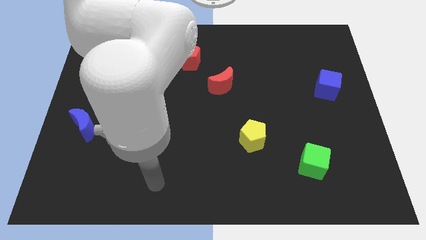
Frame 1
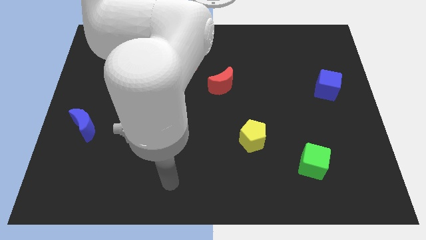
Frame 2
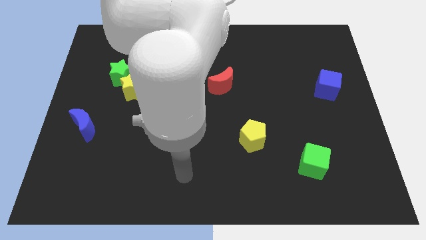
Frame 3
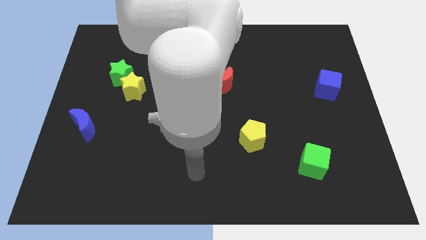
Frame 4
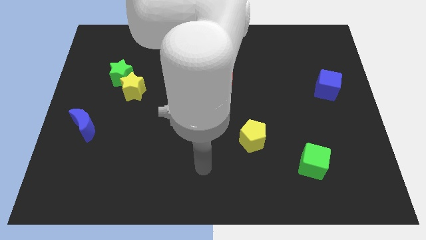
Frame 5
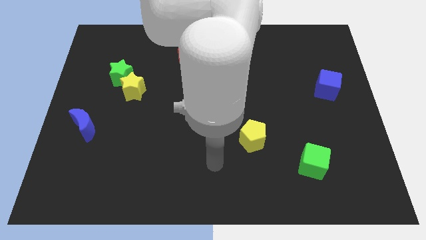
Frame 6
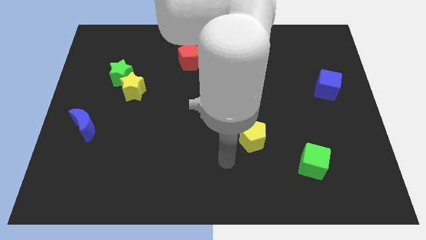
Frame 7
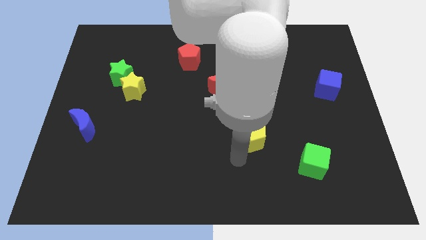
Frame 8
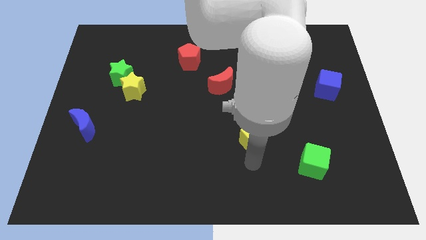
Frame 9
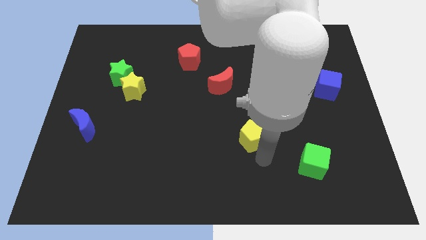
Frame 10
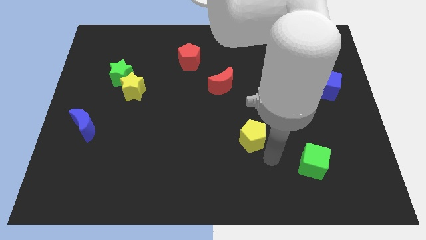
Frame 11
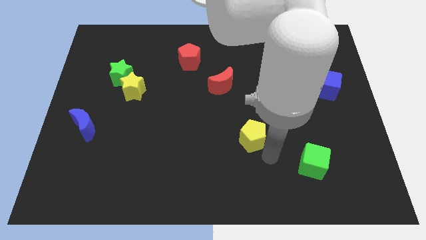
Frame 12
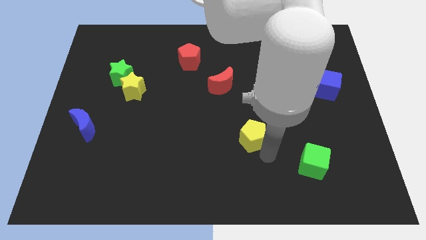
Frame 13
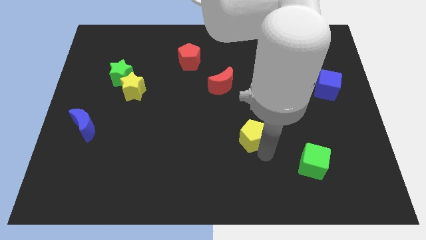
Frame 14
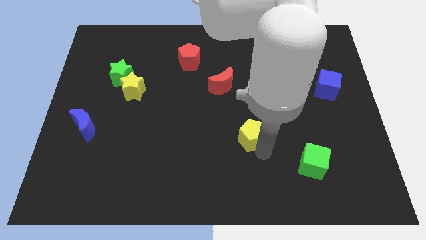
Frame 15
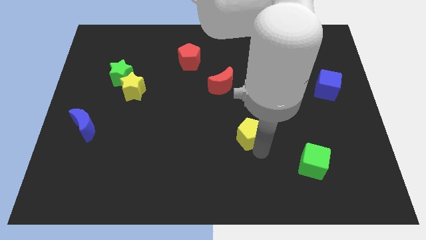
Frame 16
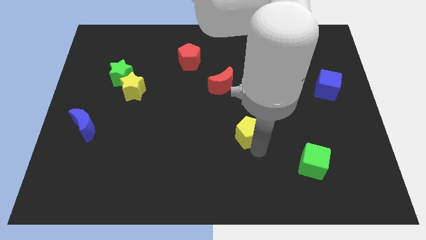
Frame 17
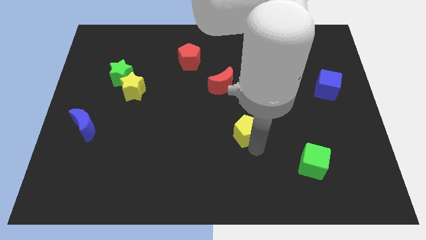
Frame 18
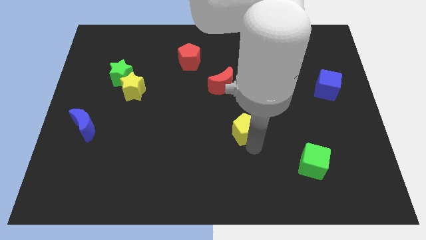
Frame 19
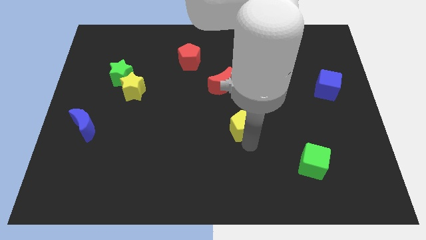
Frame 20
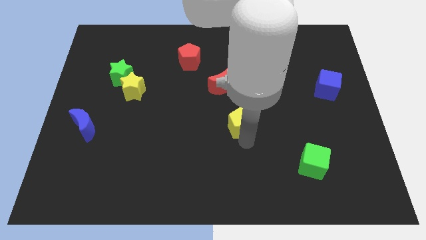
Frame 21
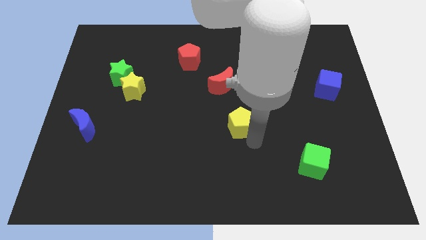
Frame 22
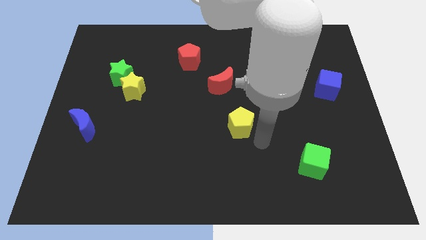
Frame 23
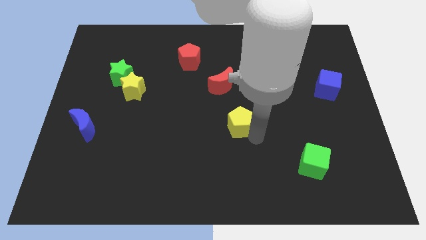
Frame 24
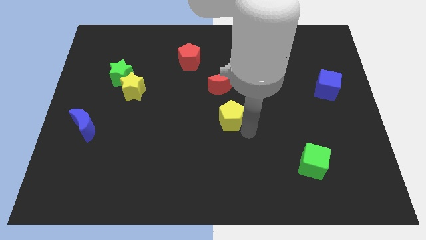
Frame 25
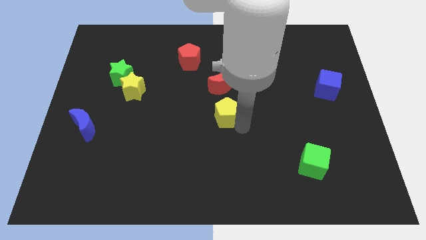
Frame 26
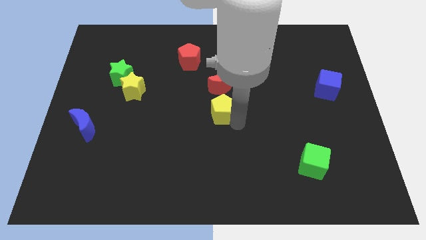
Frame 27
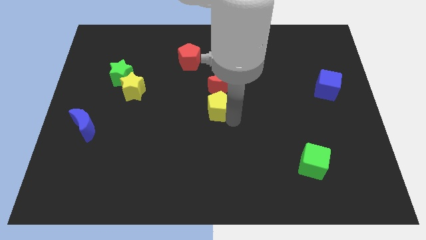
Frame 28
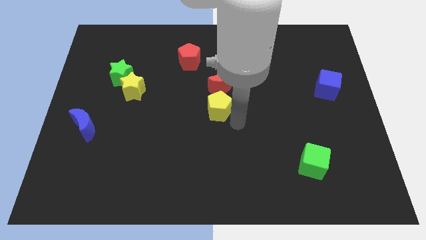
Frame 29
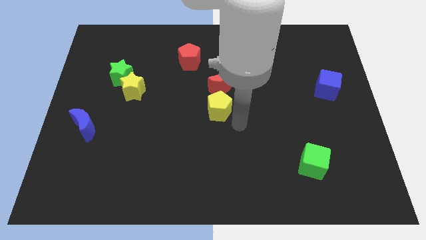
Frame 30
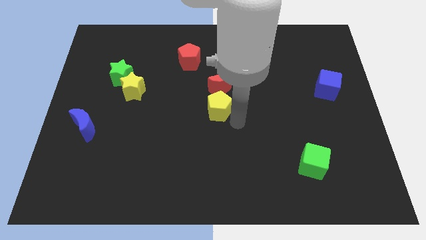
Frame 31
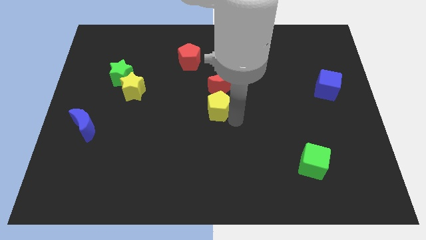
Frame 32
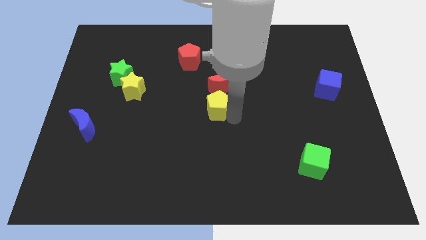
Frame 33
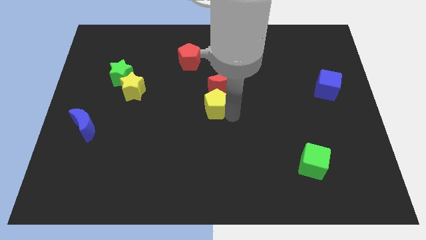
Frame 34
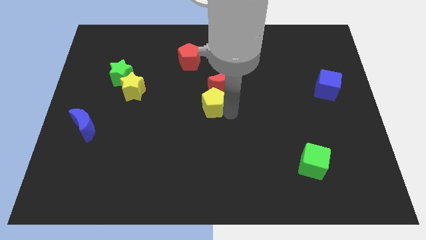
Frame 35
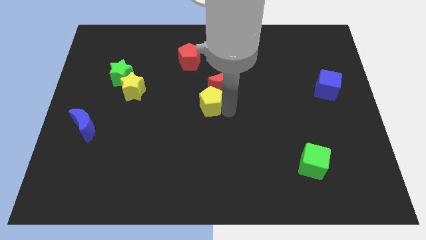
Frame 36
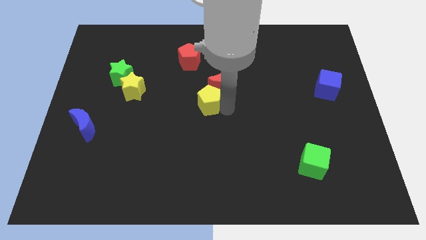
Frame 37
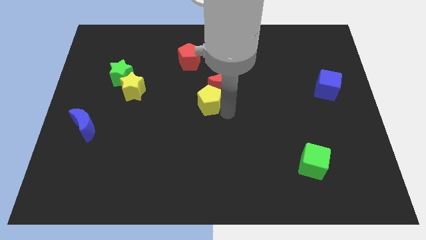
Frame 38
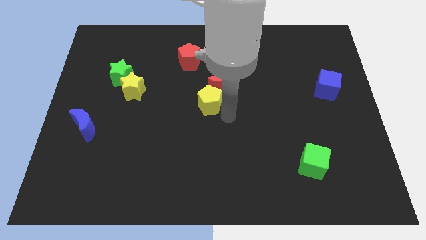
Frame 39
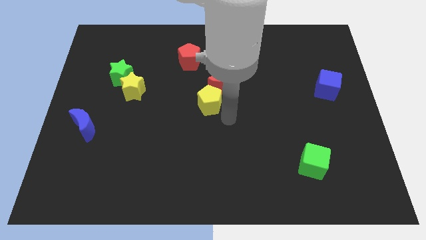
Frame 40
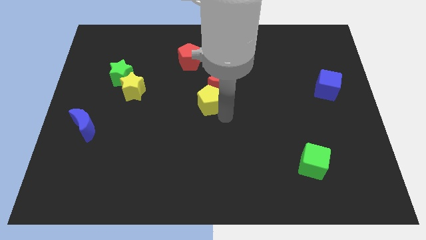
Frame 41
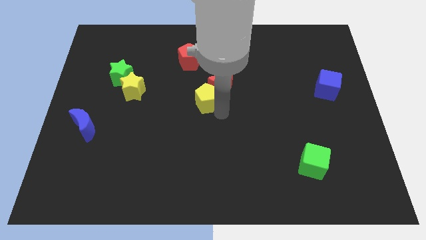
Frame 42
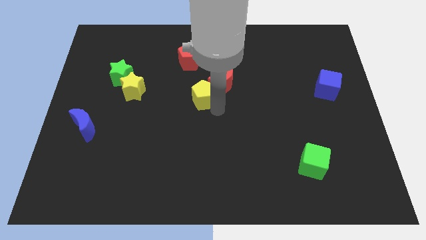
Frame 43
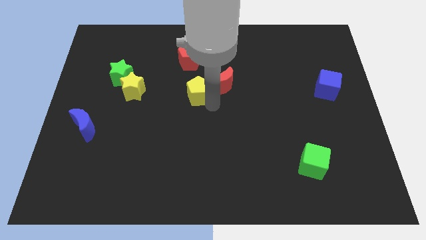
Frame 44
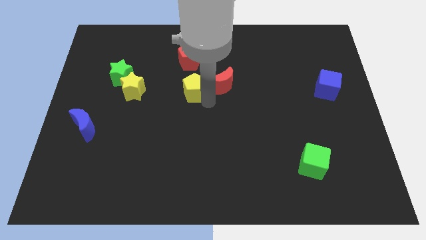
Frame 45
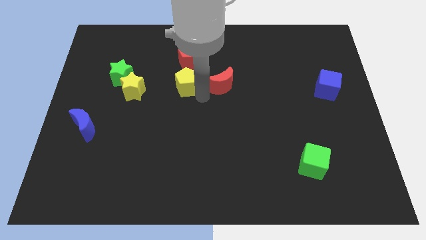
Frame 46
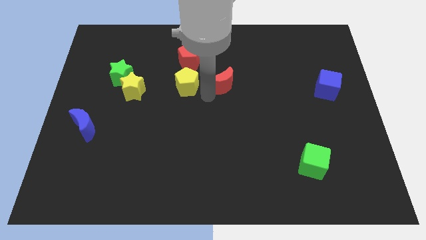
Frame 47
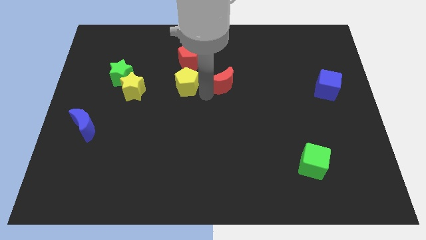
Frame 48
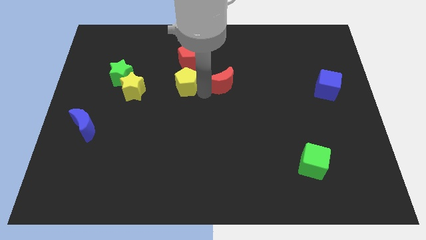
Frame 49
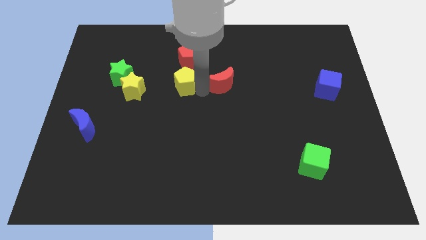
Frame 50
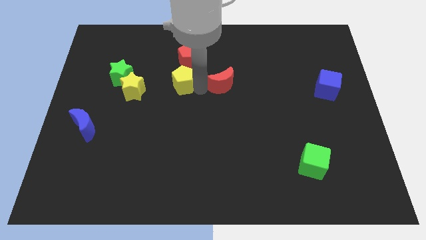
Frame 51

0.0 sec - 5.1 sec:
move the yellow pentagon diagonally down and to the left of the red pentagon

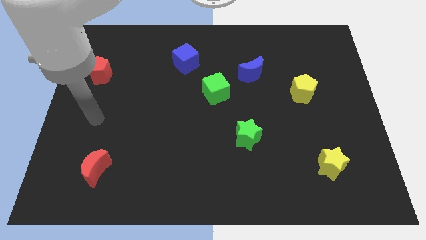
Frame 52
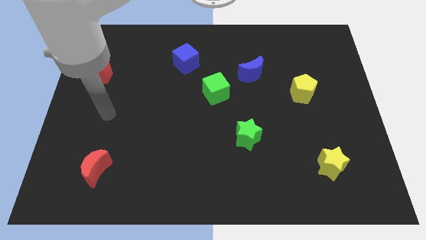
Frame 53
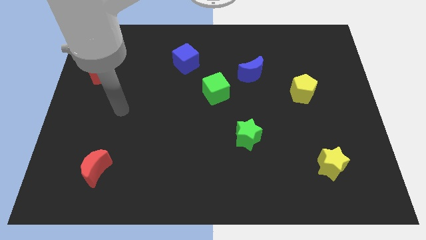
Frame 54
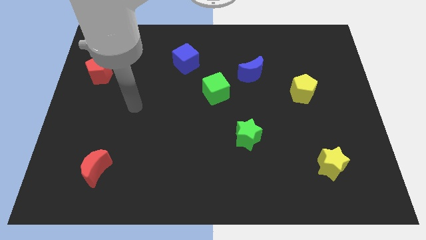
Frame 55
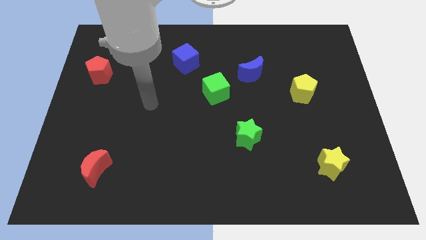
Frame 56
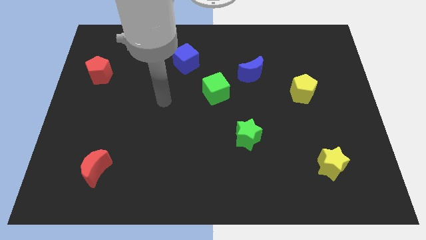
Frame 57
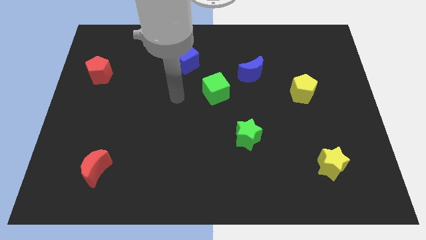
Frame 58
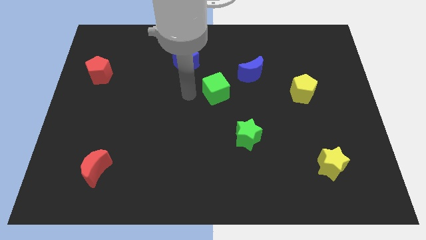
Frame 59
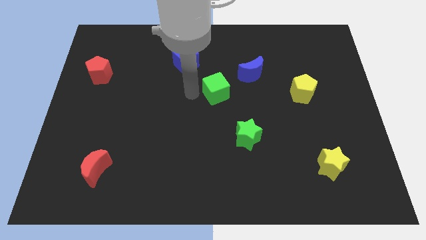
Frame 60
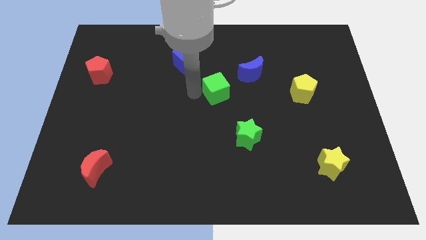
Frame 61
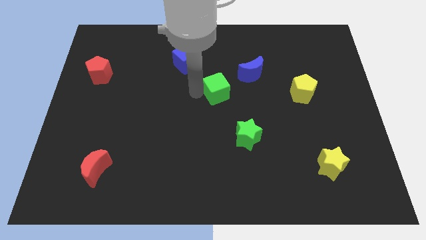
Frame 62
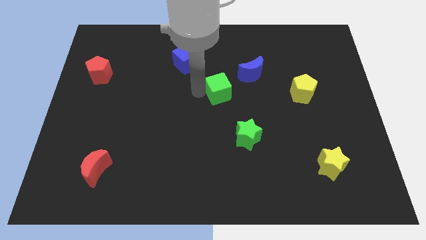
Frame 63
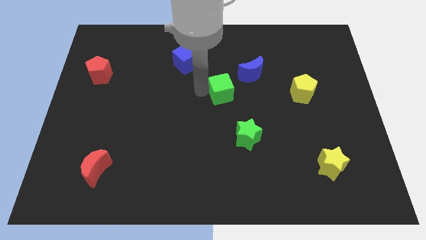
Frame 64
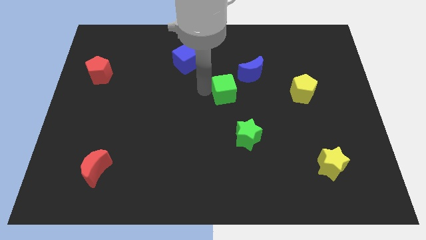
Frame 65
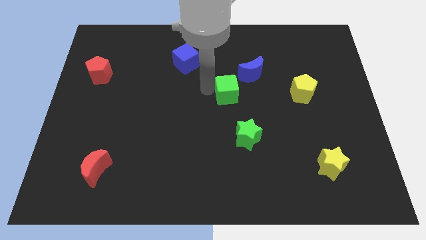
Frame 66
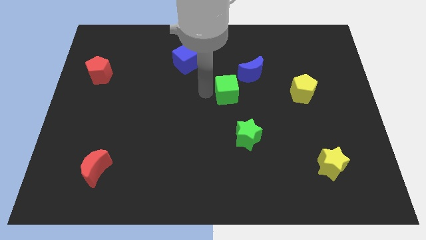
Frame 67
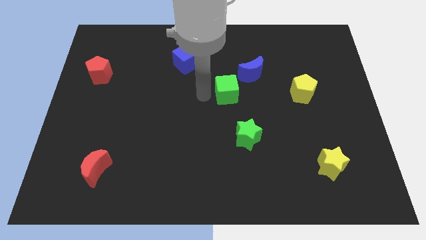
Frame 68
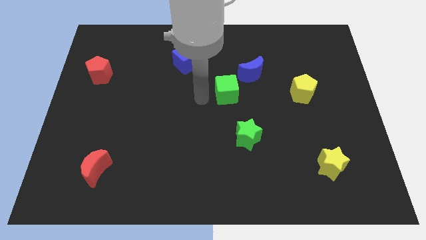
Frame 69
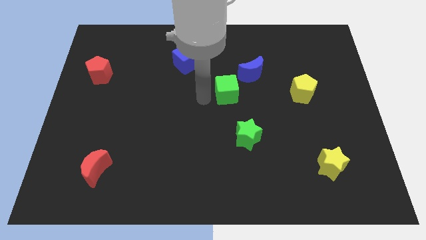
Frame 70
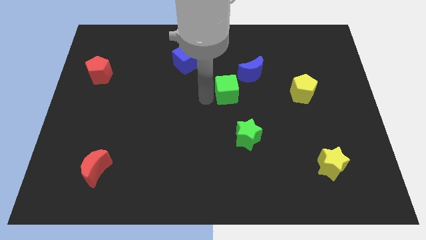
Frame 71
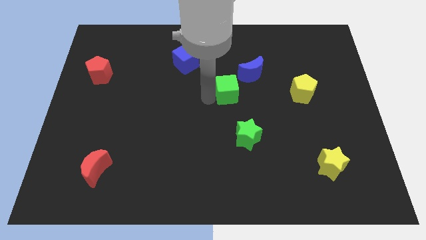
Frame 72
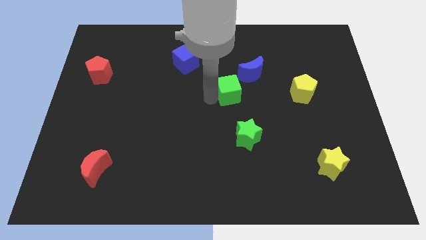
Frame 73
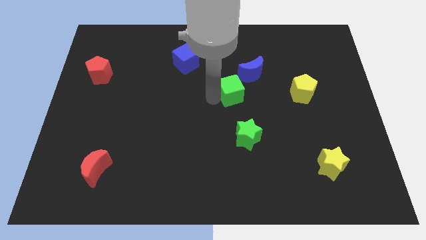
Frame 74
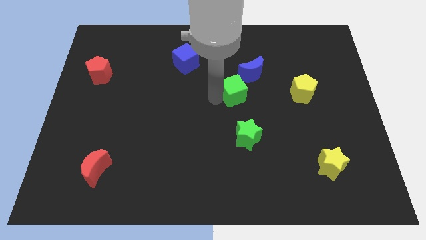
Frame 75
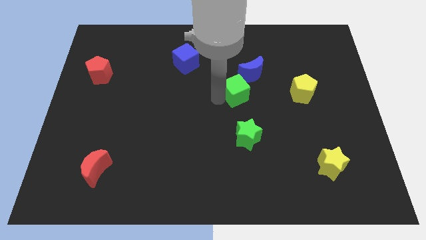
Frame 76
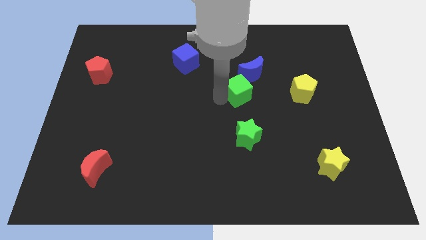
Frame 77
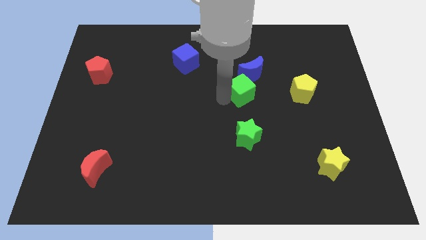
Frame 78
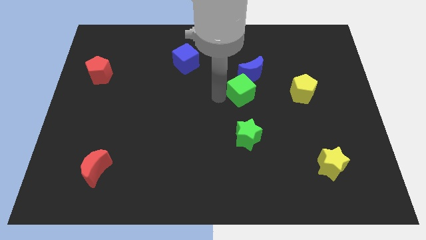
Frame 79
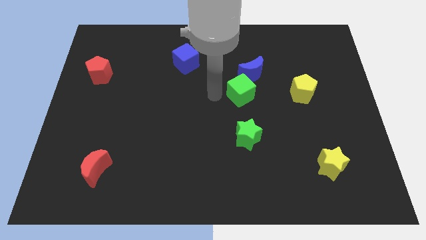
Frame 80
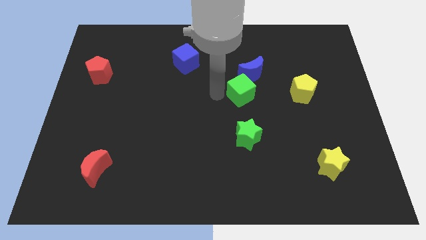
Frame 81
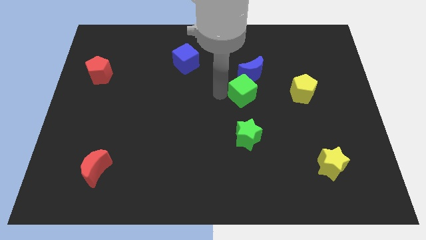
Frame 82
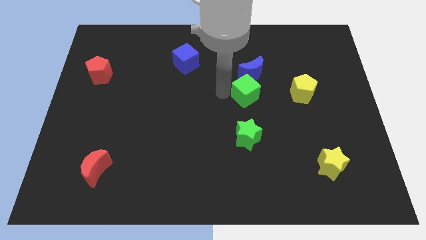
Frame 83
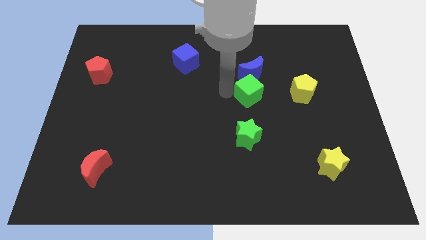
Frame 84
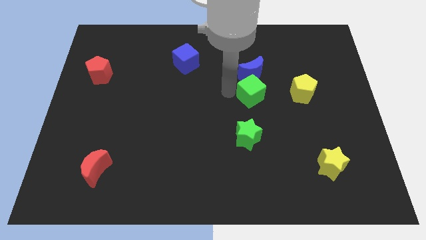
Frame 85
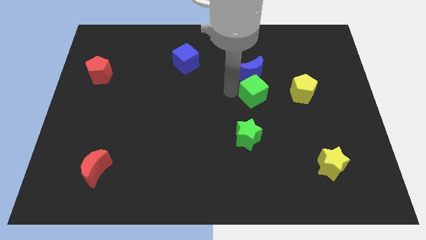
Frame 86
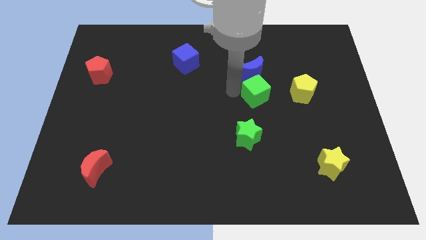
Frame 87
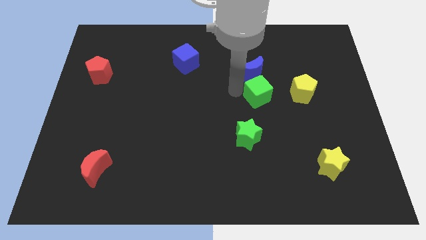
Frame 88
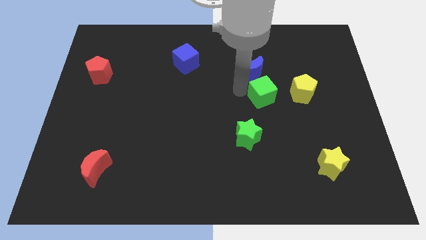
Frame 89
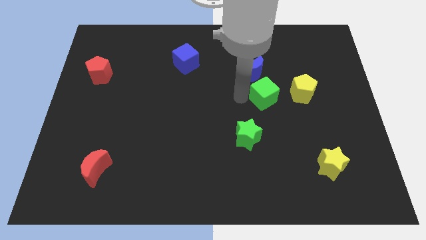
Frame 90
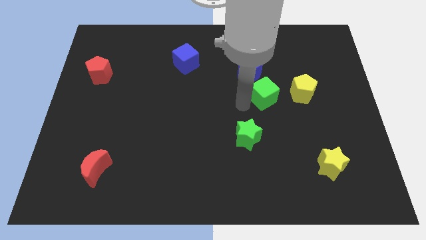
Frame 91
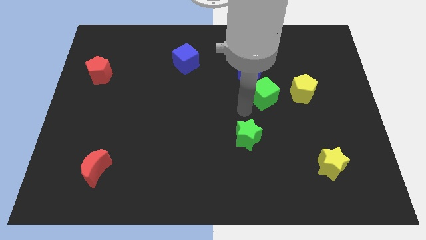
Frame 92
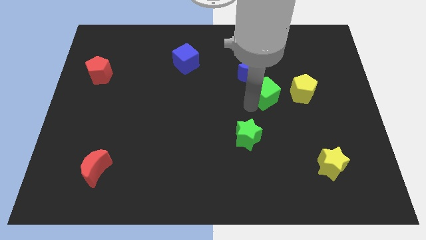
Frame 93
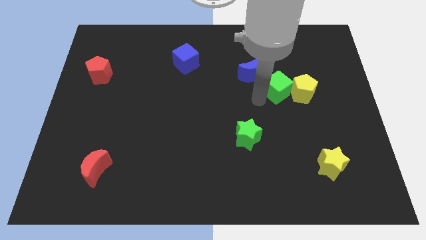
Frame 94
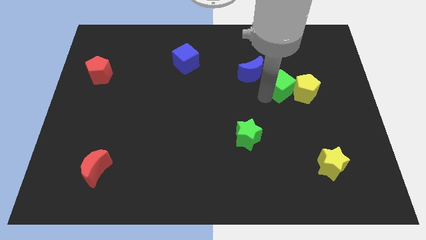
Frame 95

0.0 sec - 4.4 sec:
move the green cube to the right of the blue moon
